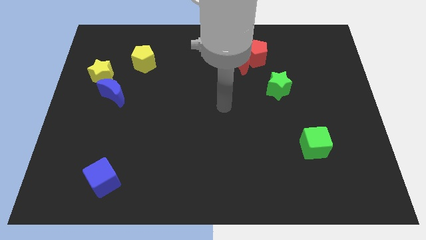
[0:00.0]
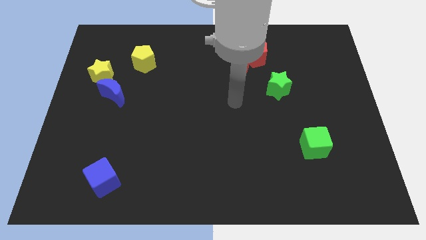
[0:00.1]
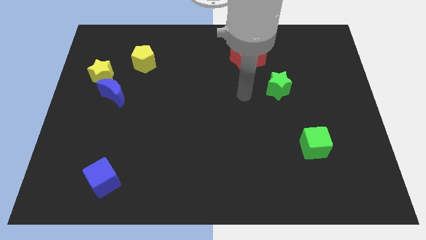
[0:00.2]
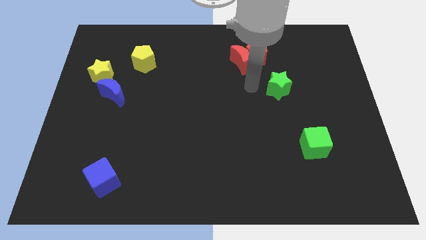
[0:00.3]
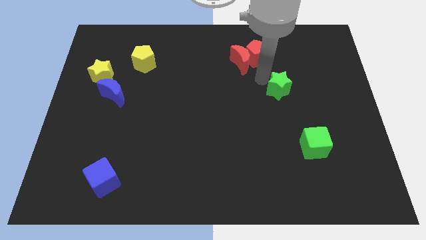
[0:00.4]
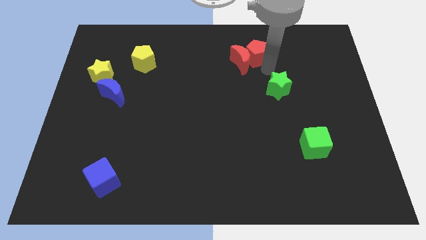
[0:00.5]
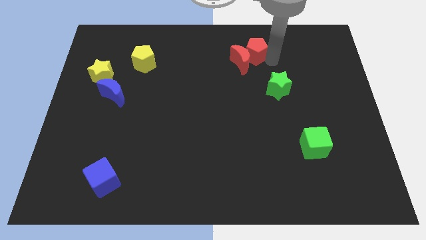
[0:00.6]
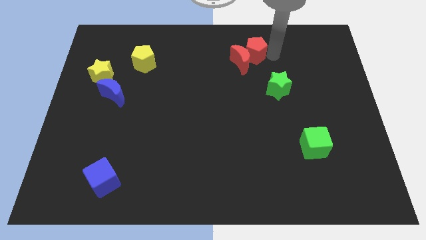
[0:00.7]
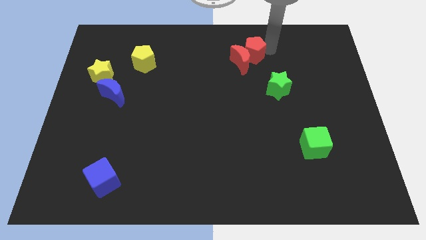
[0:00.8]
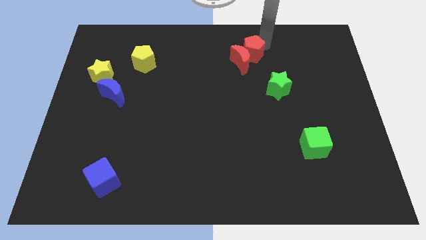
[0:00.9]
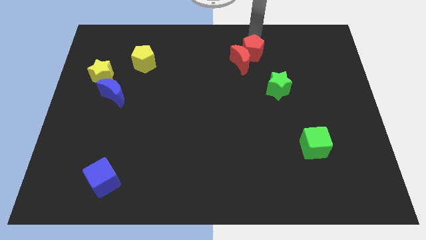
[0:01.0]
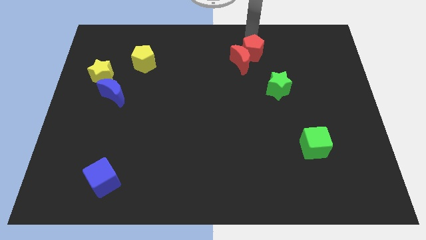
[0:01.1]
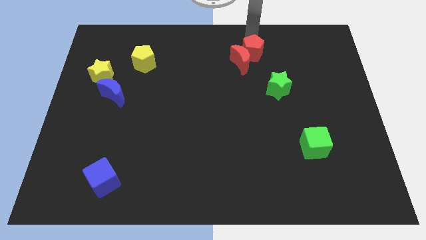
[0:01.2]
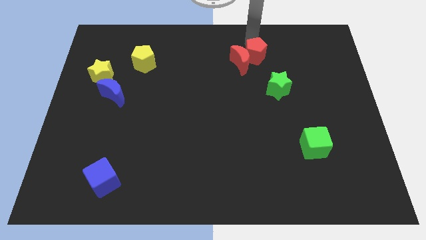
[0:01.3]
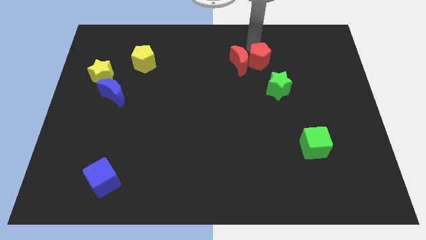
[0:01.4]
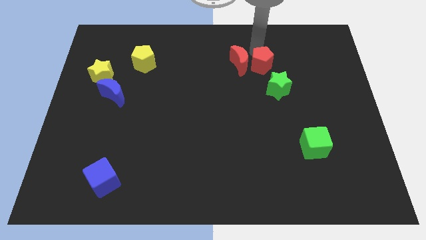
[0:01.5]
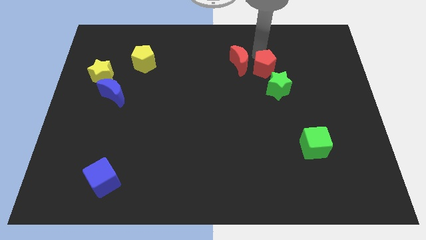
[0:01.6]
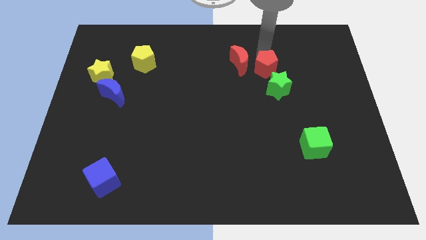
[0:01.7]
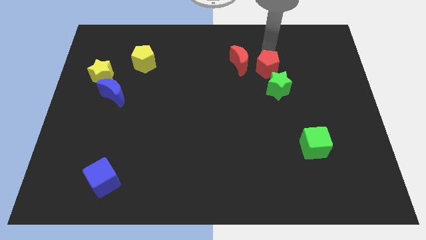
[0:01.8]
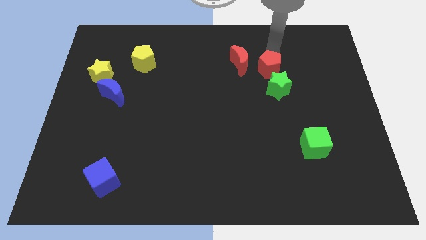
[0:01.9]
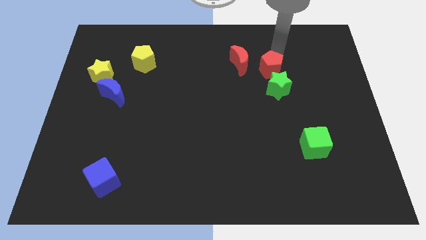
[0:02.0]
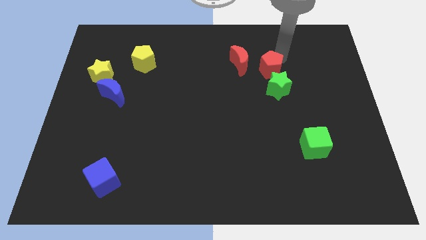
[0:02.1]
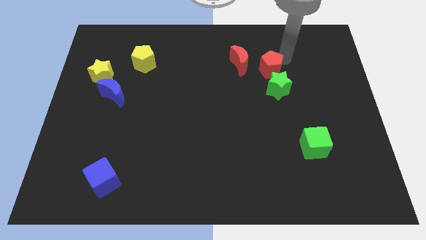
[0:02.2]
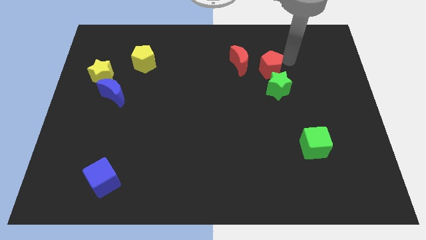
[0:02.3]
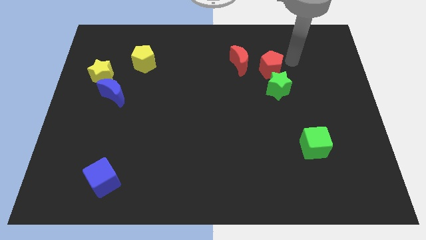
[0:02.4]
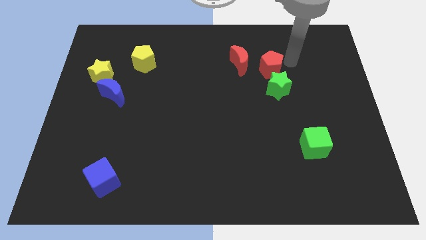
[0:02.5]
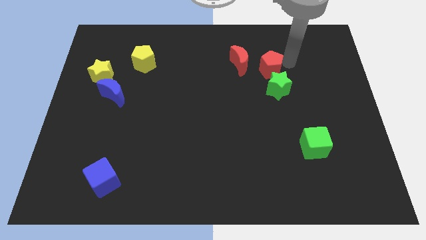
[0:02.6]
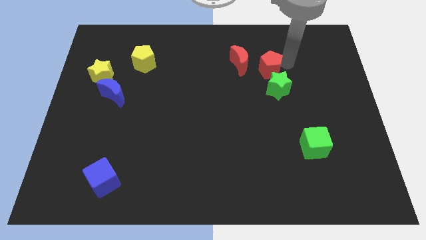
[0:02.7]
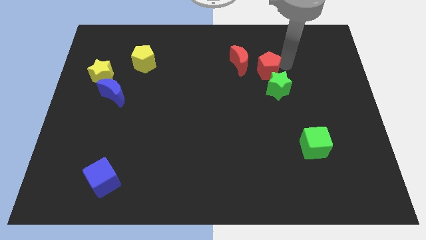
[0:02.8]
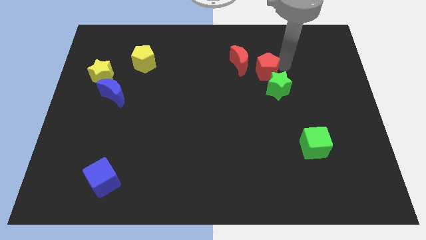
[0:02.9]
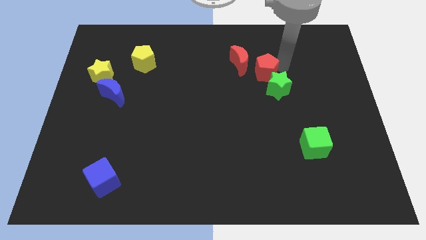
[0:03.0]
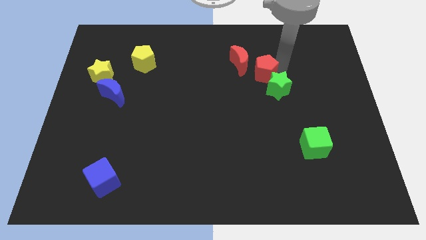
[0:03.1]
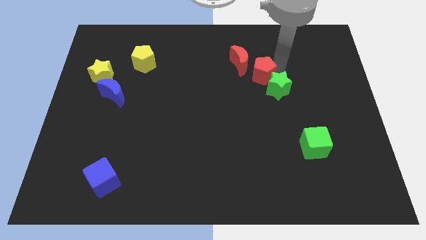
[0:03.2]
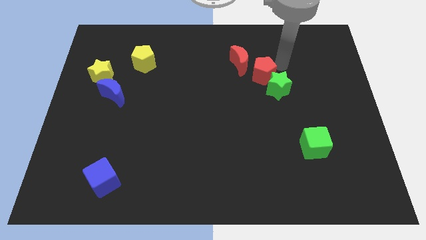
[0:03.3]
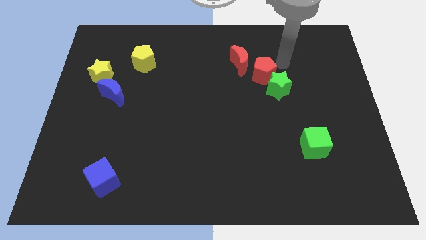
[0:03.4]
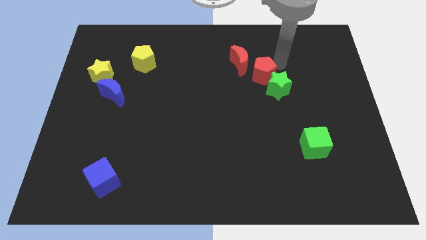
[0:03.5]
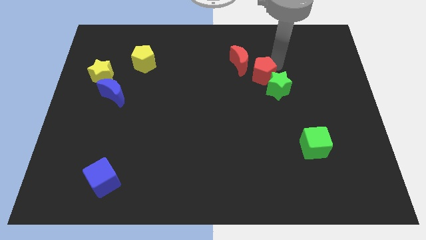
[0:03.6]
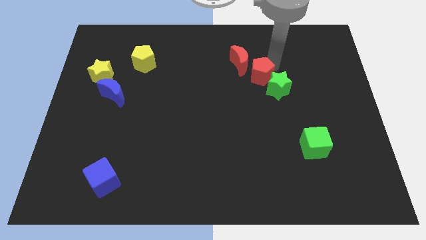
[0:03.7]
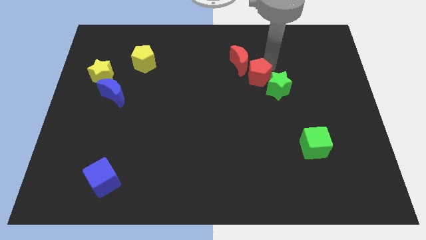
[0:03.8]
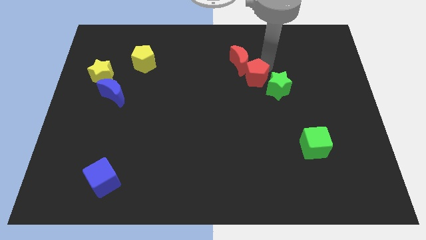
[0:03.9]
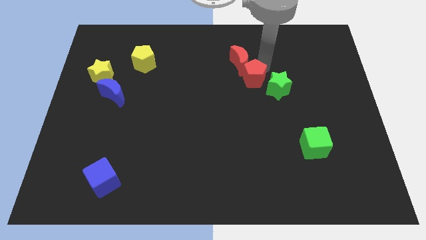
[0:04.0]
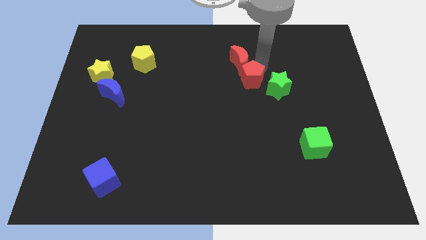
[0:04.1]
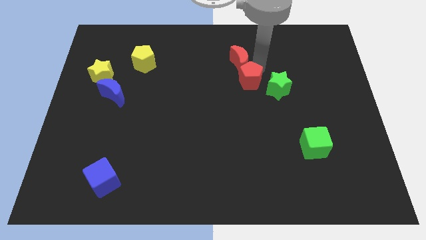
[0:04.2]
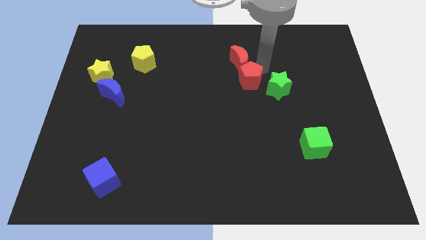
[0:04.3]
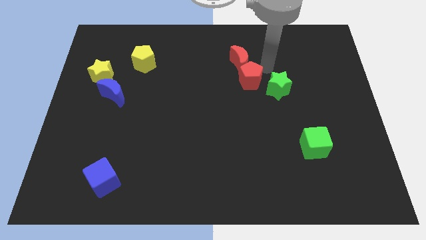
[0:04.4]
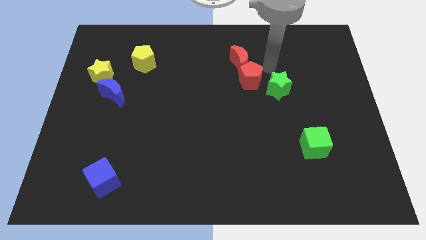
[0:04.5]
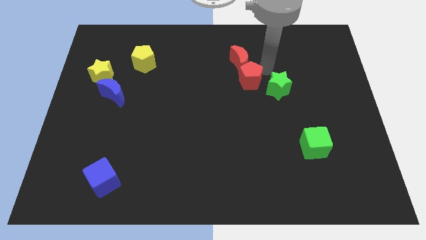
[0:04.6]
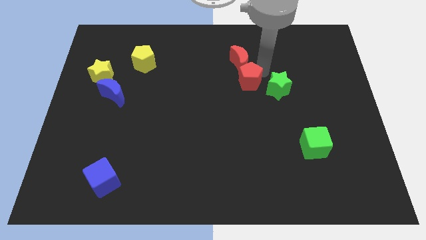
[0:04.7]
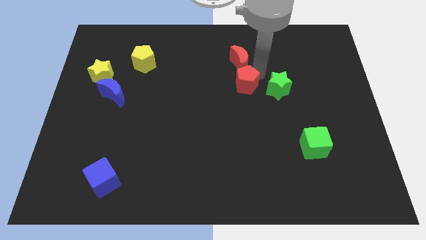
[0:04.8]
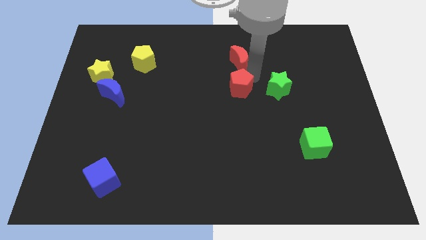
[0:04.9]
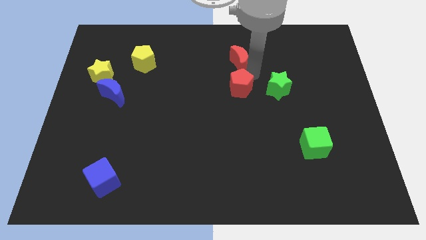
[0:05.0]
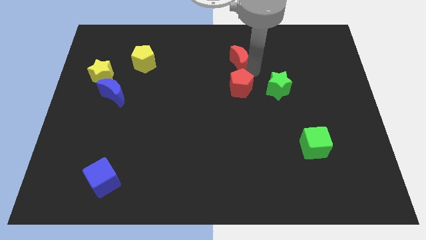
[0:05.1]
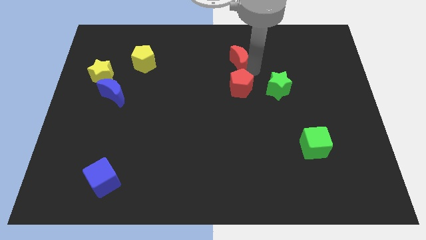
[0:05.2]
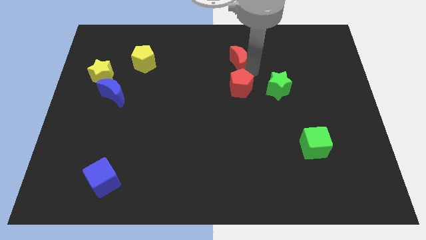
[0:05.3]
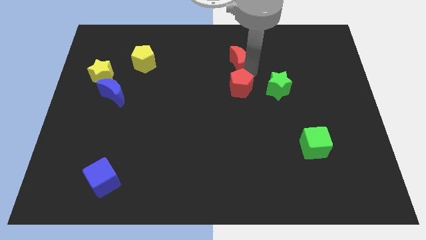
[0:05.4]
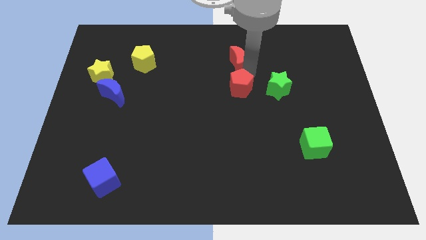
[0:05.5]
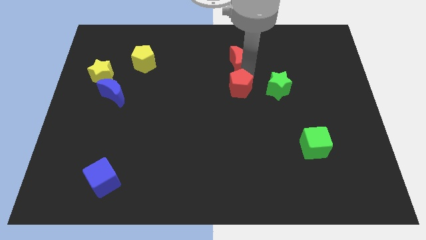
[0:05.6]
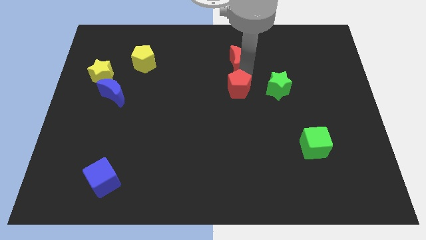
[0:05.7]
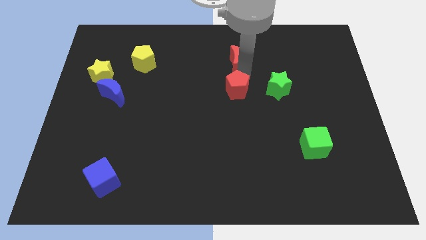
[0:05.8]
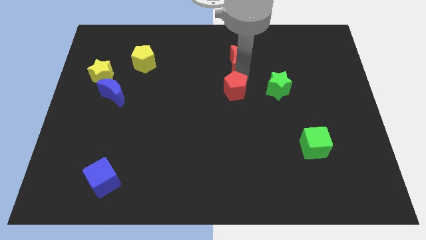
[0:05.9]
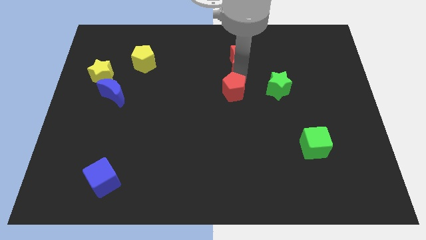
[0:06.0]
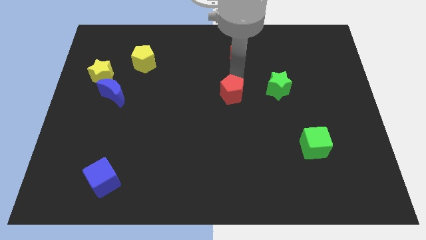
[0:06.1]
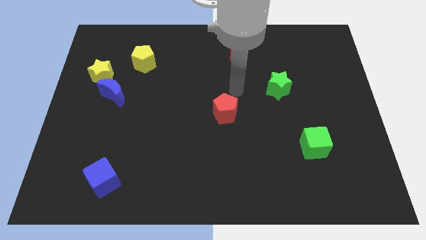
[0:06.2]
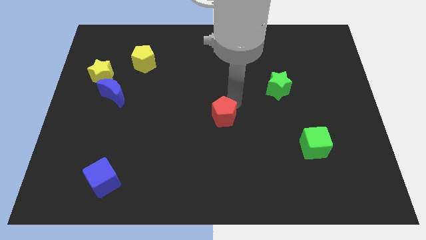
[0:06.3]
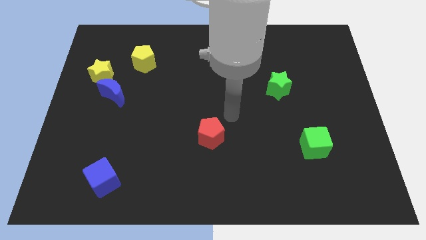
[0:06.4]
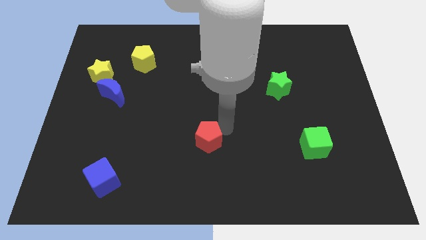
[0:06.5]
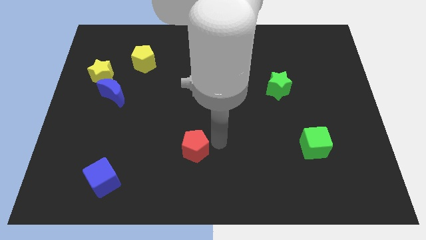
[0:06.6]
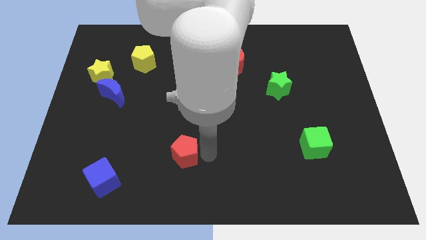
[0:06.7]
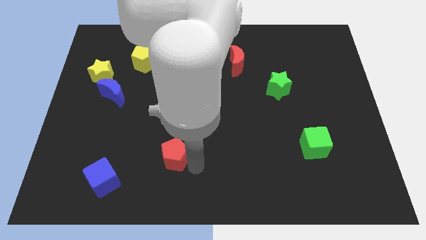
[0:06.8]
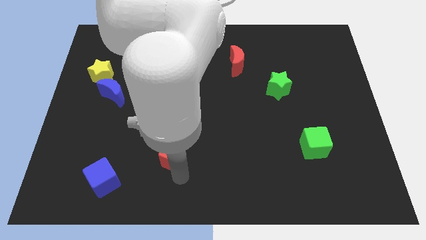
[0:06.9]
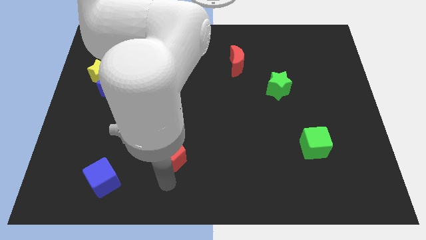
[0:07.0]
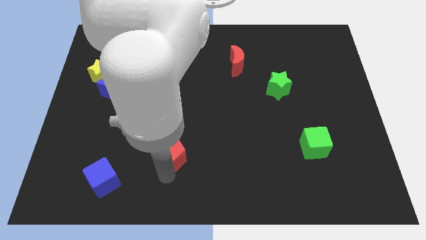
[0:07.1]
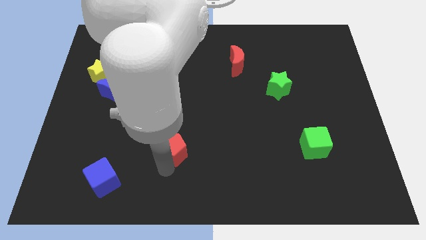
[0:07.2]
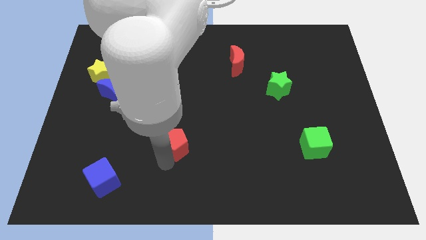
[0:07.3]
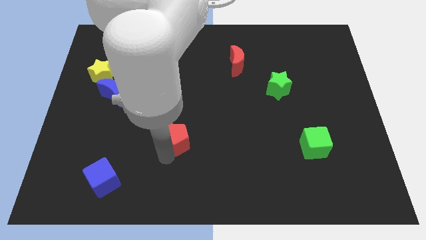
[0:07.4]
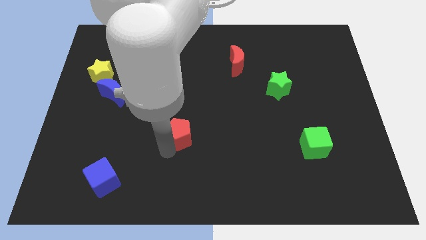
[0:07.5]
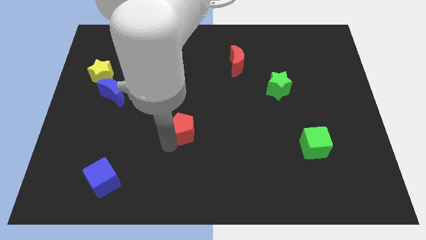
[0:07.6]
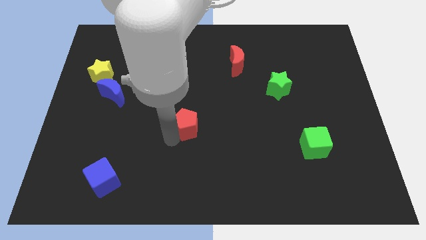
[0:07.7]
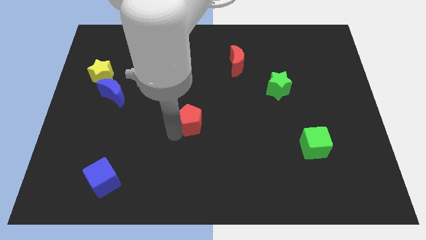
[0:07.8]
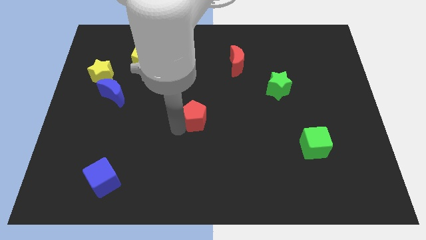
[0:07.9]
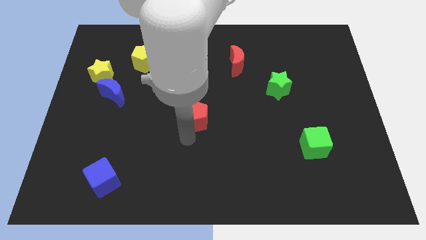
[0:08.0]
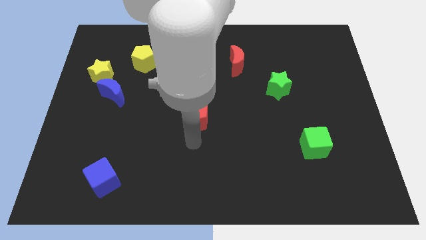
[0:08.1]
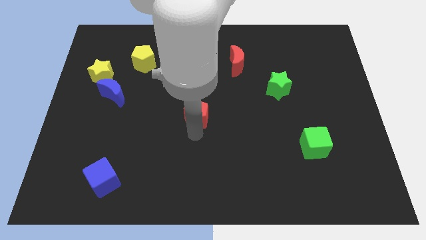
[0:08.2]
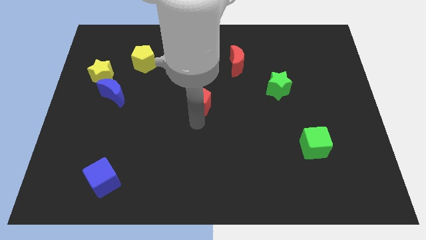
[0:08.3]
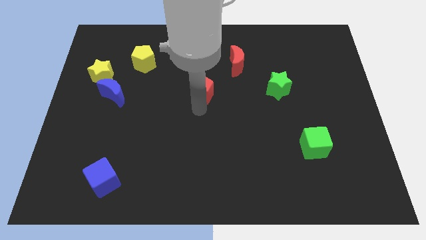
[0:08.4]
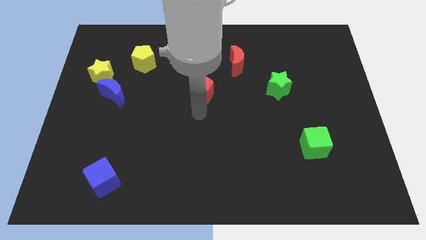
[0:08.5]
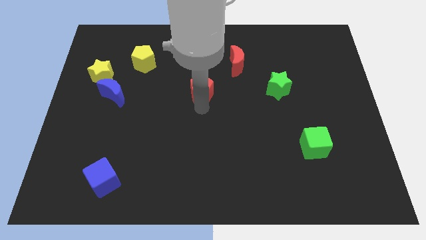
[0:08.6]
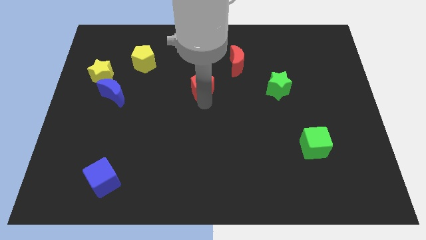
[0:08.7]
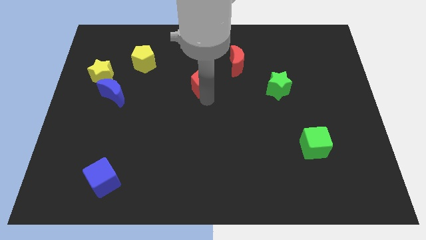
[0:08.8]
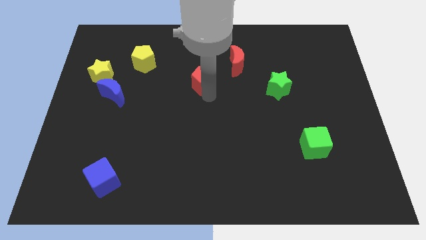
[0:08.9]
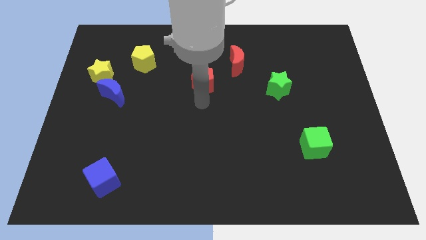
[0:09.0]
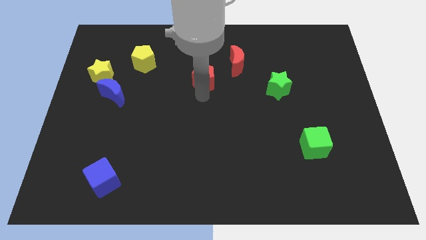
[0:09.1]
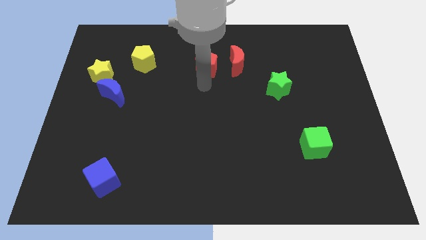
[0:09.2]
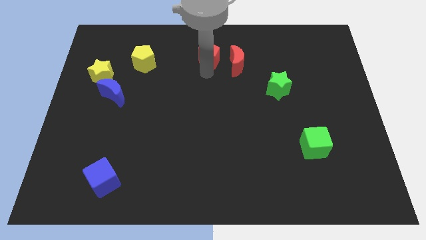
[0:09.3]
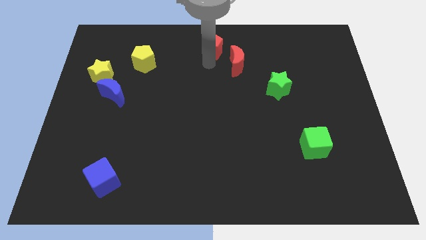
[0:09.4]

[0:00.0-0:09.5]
push the red pentagon to the top side
